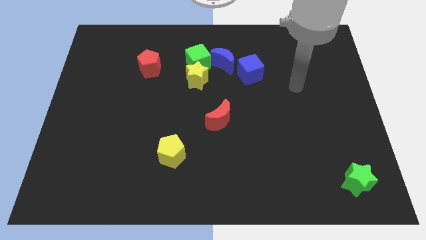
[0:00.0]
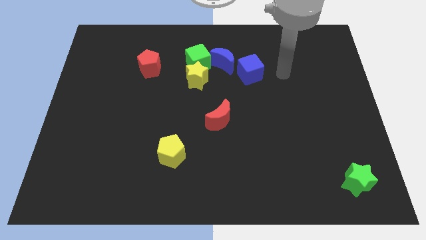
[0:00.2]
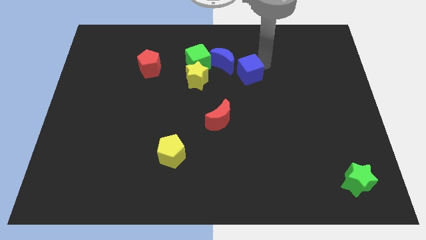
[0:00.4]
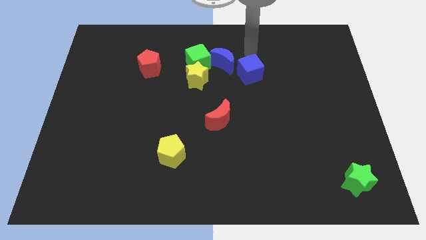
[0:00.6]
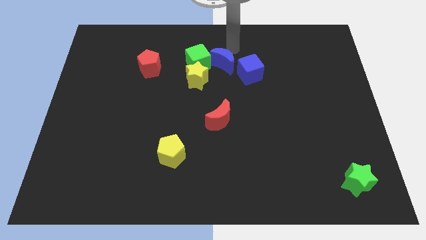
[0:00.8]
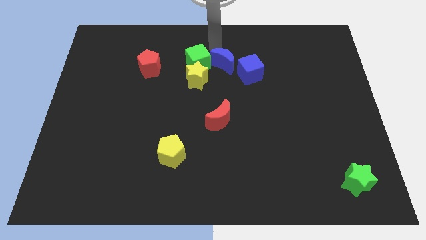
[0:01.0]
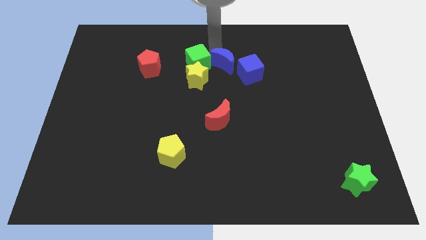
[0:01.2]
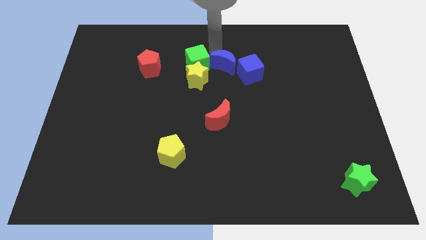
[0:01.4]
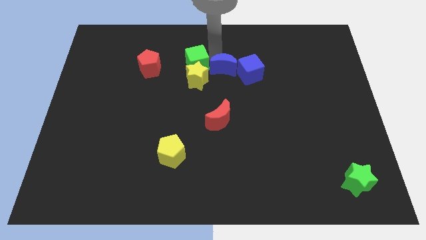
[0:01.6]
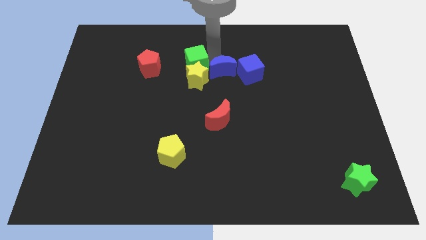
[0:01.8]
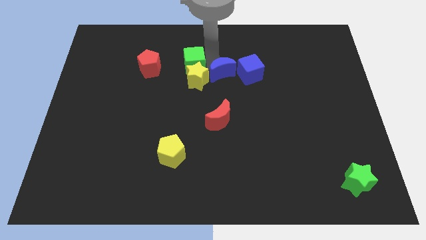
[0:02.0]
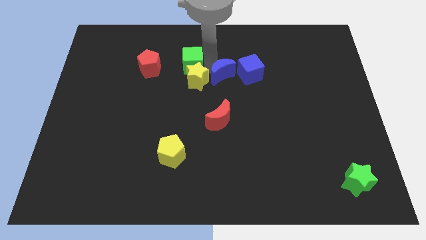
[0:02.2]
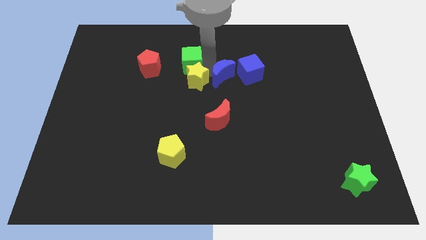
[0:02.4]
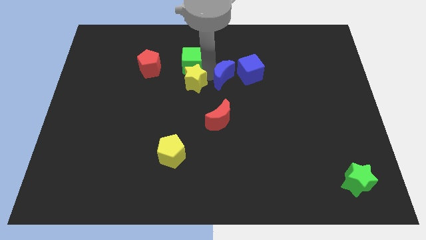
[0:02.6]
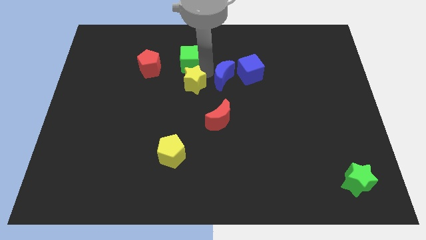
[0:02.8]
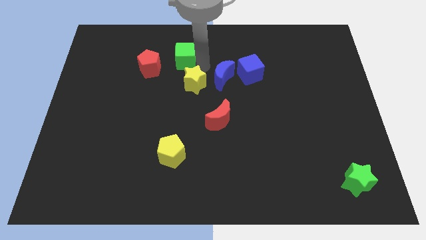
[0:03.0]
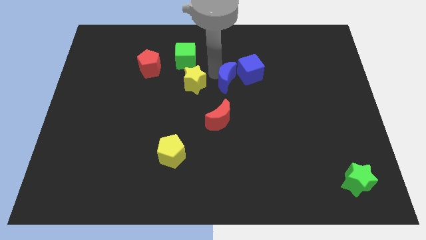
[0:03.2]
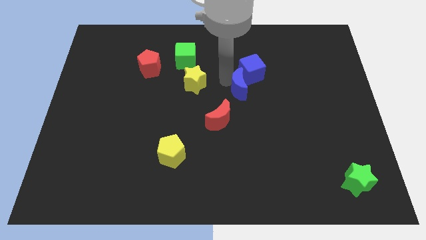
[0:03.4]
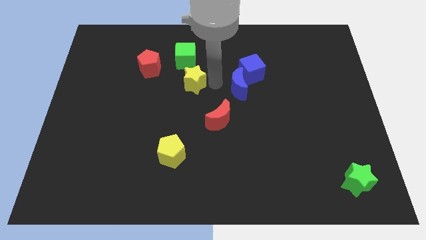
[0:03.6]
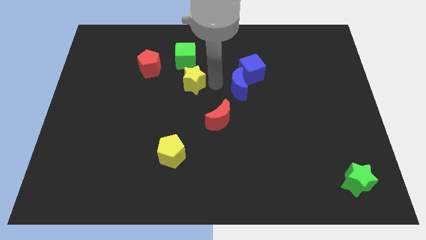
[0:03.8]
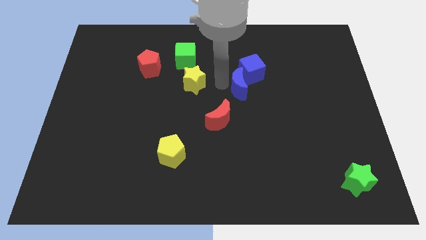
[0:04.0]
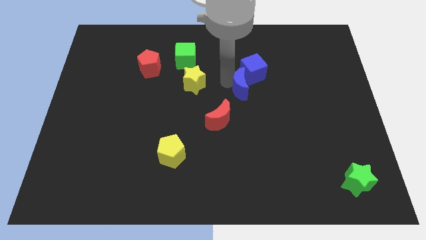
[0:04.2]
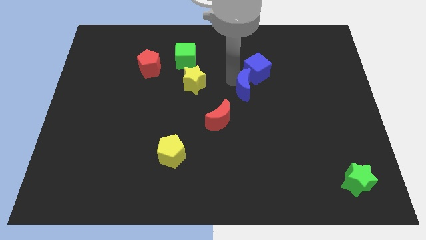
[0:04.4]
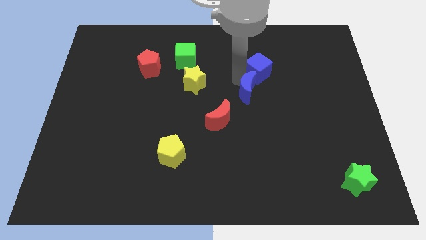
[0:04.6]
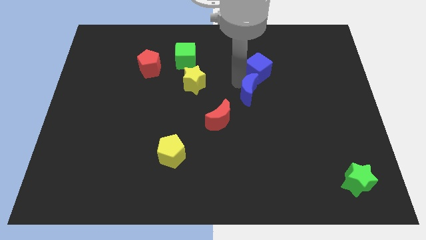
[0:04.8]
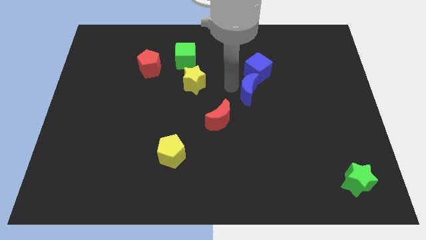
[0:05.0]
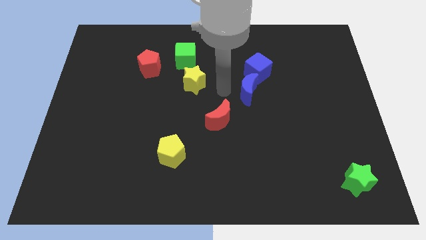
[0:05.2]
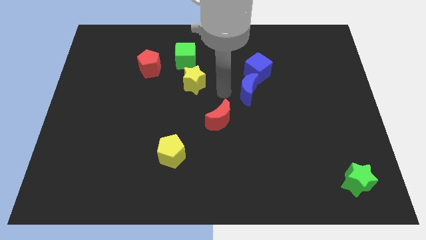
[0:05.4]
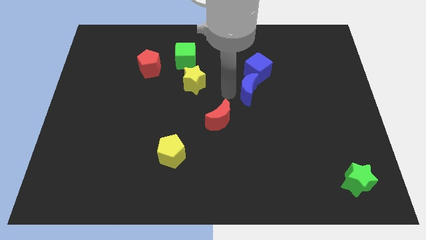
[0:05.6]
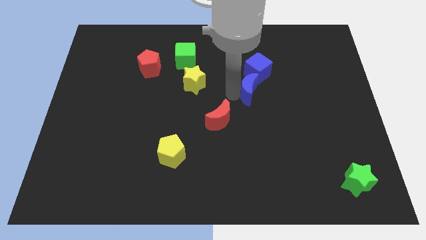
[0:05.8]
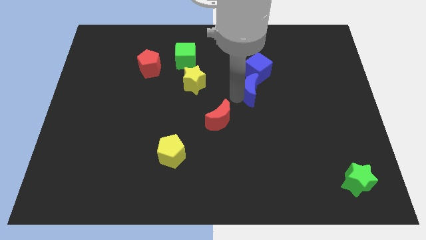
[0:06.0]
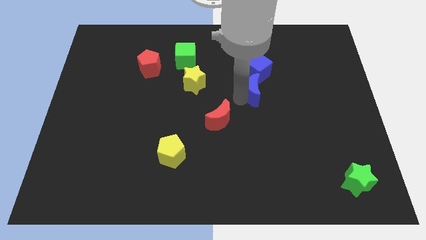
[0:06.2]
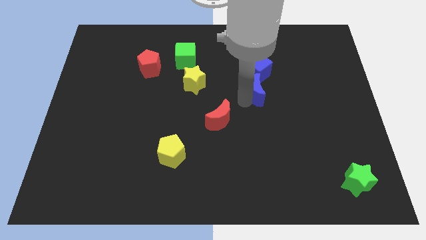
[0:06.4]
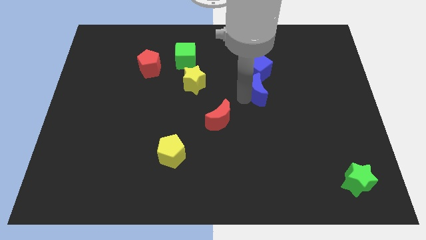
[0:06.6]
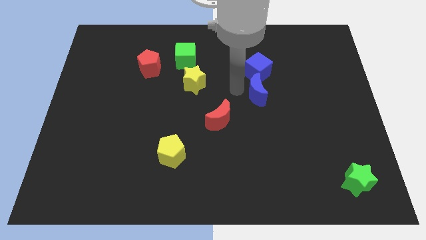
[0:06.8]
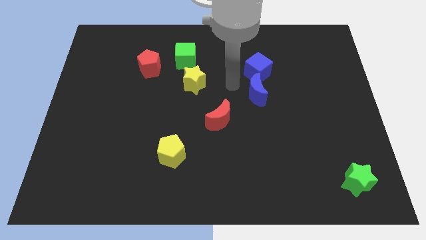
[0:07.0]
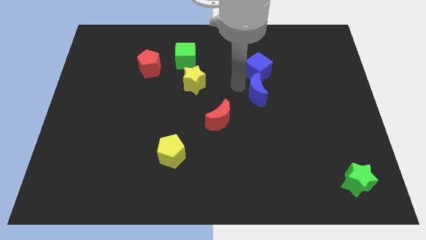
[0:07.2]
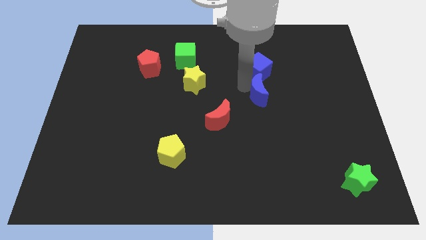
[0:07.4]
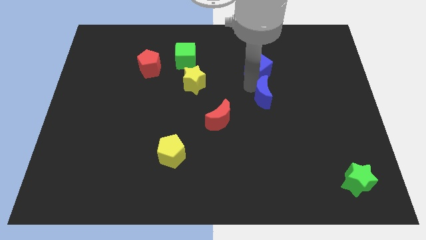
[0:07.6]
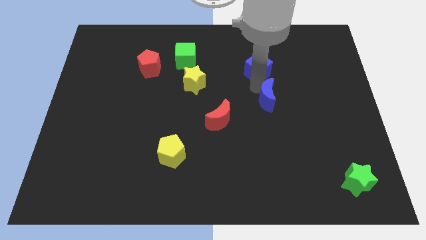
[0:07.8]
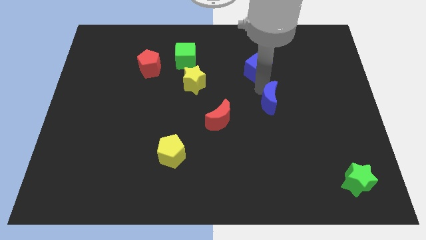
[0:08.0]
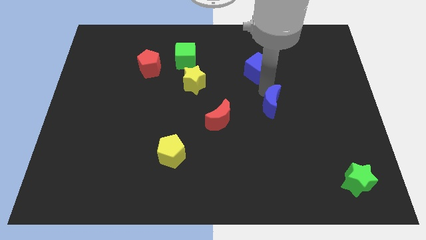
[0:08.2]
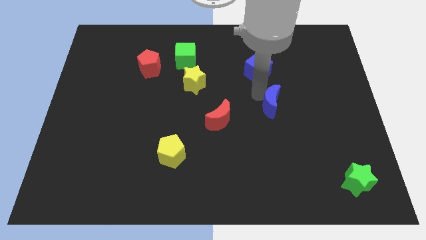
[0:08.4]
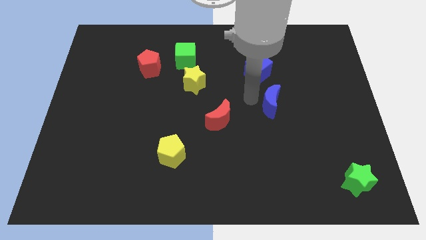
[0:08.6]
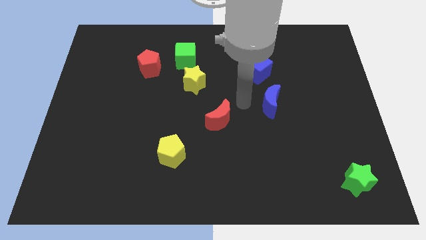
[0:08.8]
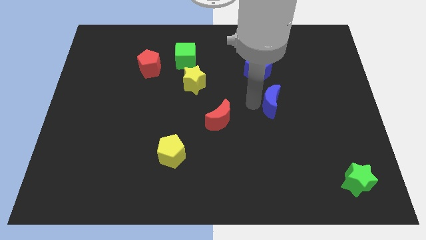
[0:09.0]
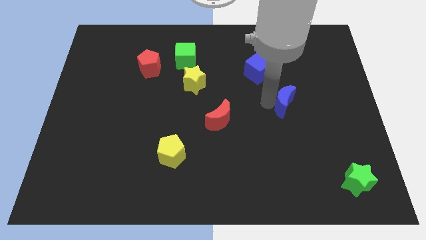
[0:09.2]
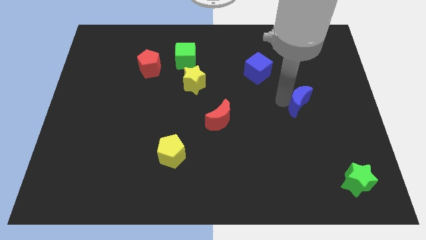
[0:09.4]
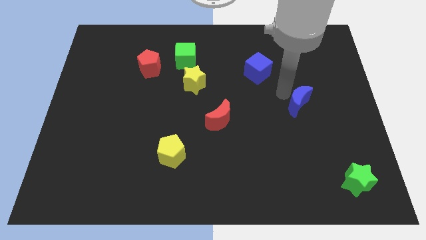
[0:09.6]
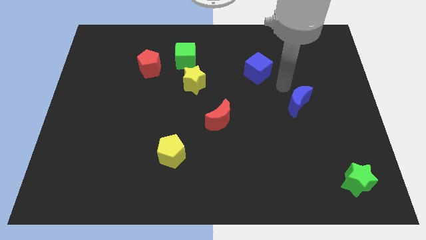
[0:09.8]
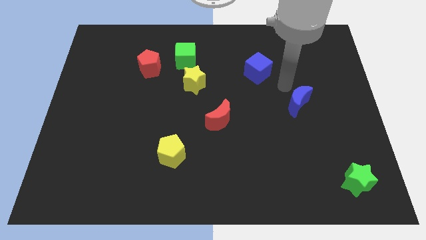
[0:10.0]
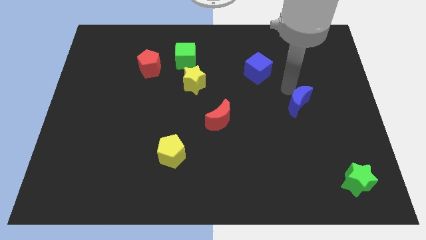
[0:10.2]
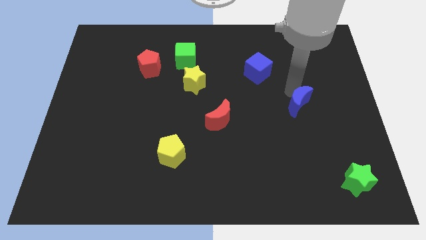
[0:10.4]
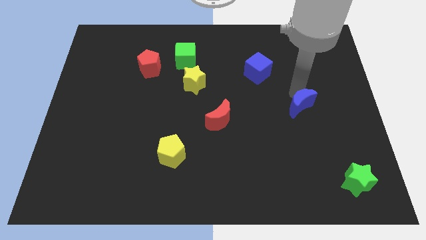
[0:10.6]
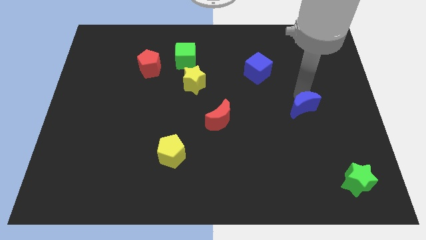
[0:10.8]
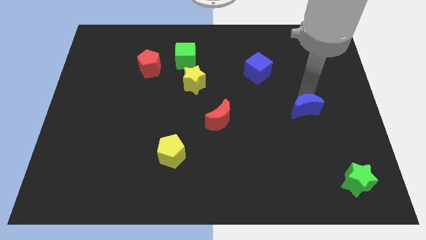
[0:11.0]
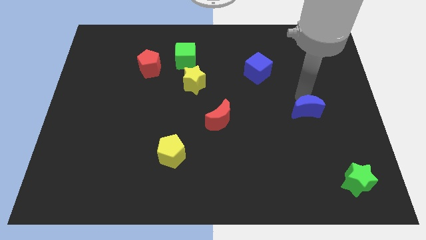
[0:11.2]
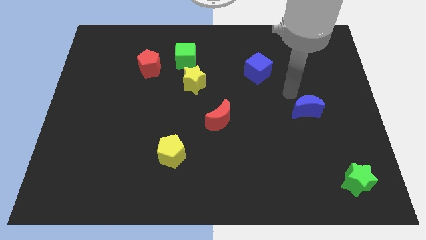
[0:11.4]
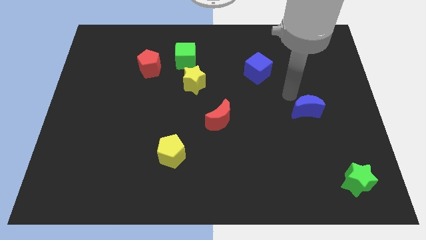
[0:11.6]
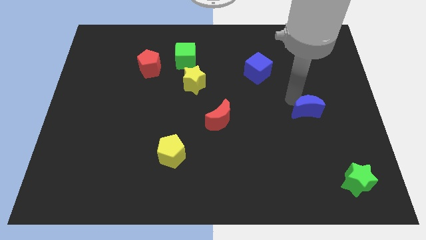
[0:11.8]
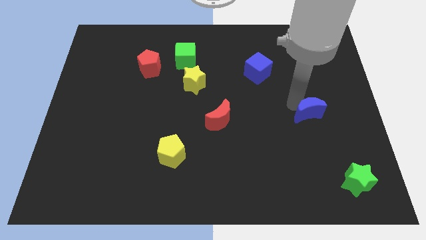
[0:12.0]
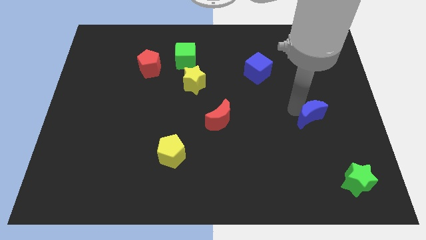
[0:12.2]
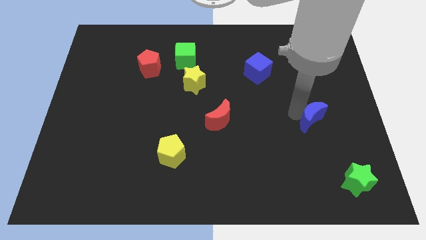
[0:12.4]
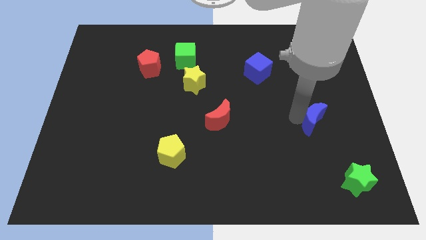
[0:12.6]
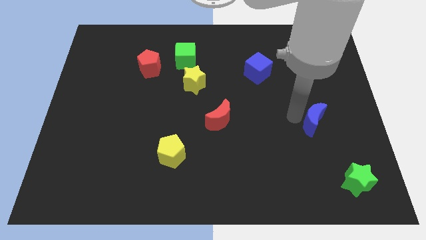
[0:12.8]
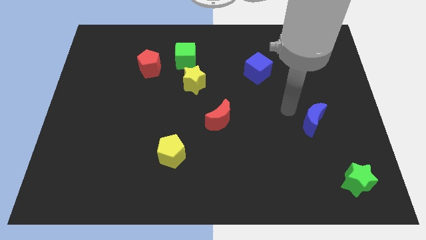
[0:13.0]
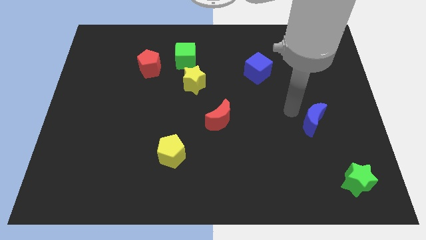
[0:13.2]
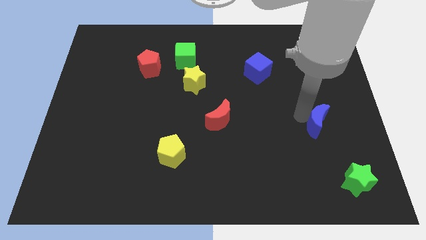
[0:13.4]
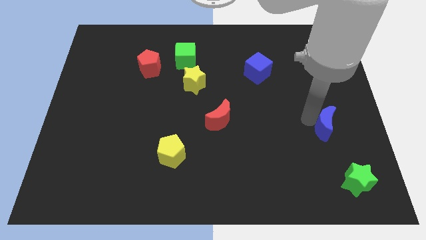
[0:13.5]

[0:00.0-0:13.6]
push the blue moon above the green star

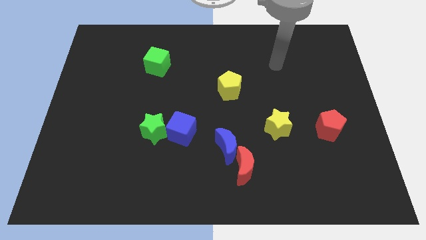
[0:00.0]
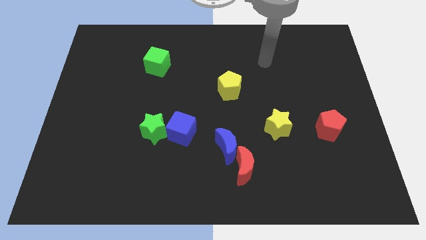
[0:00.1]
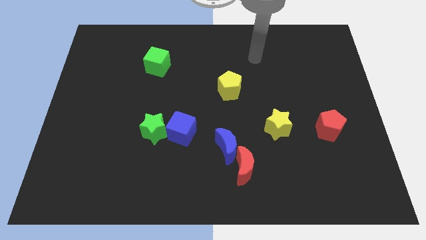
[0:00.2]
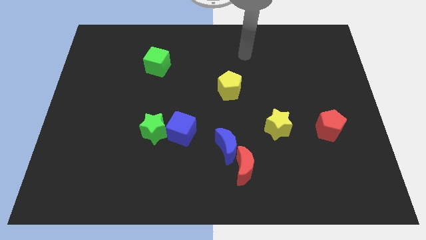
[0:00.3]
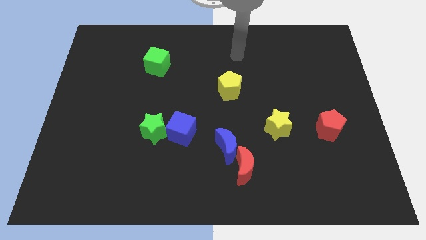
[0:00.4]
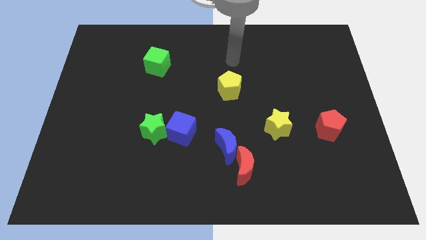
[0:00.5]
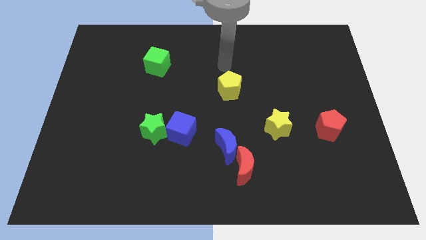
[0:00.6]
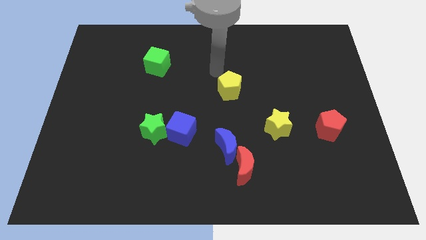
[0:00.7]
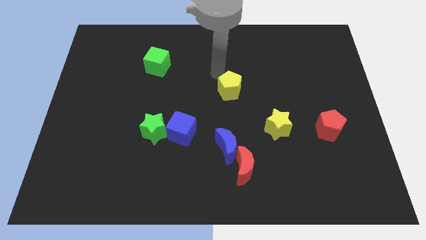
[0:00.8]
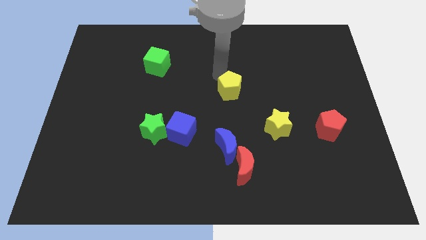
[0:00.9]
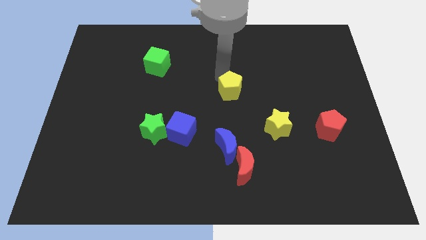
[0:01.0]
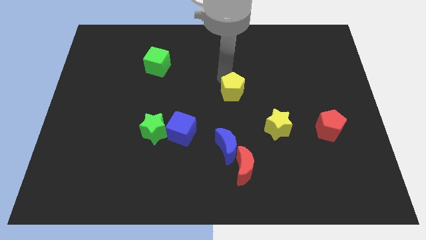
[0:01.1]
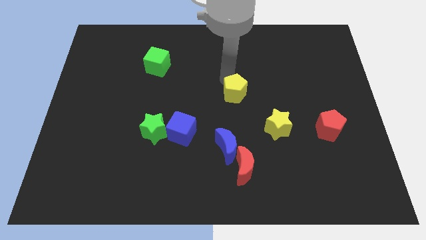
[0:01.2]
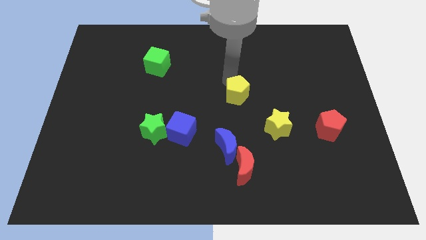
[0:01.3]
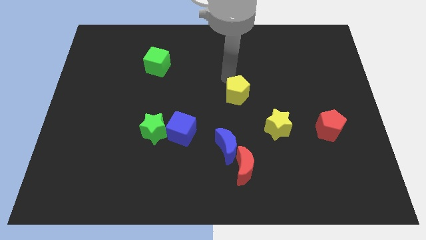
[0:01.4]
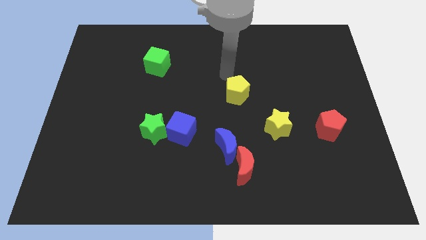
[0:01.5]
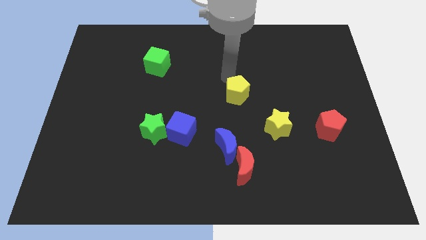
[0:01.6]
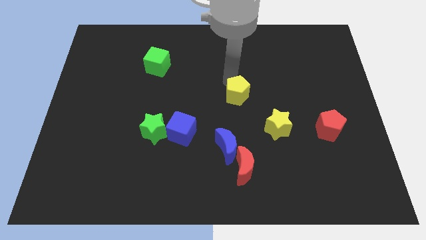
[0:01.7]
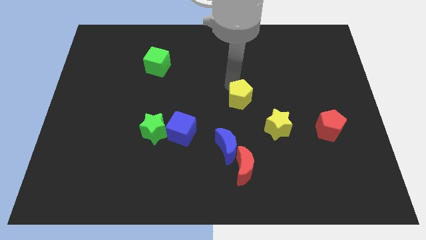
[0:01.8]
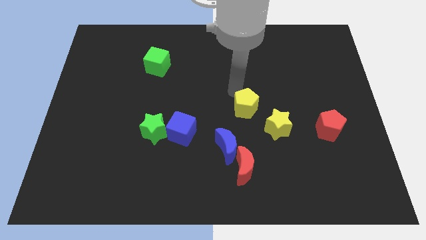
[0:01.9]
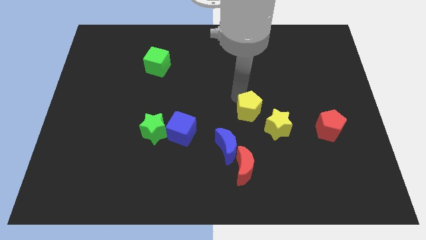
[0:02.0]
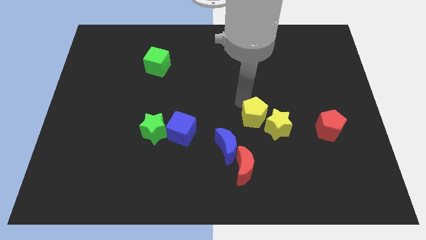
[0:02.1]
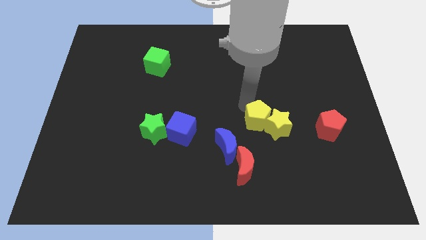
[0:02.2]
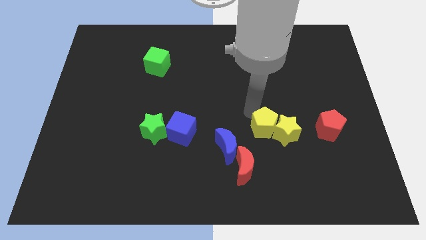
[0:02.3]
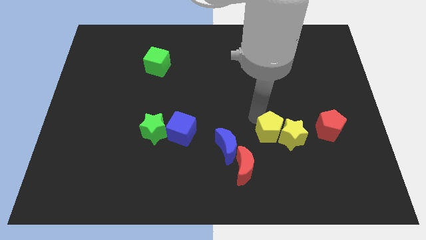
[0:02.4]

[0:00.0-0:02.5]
put the yellow pentagon to the right of the blue moon
